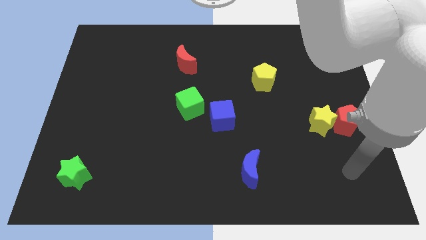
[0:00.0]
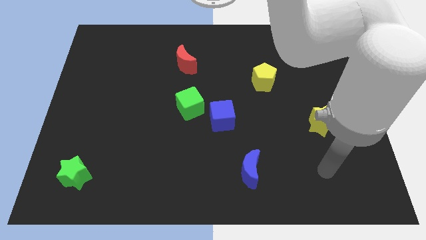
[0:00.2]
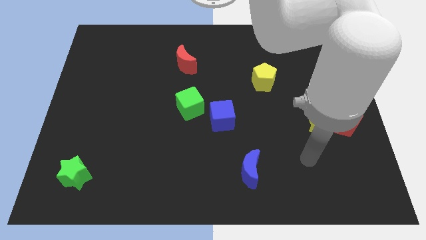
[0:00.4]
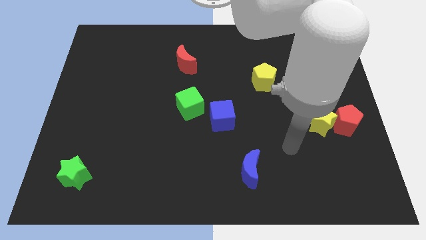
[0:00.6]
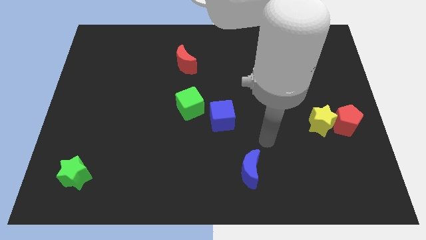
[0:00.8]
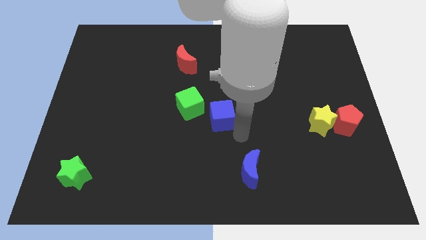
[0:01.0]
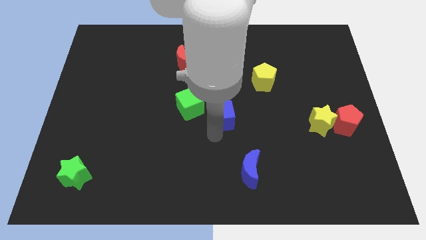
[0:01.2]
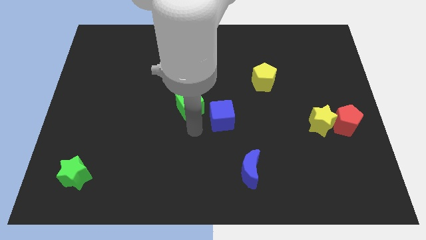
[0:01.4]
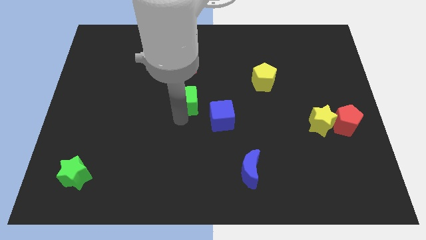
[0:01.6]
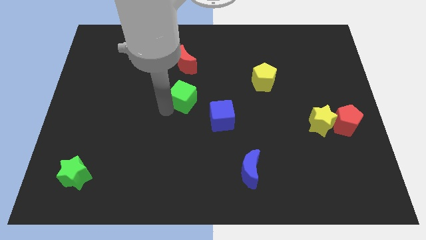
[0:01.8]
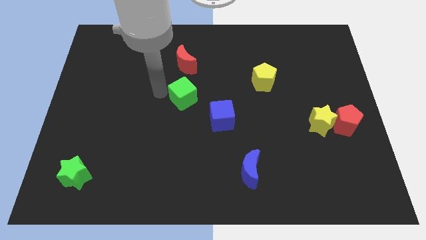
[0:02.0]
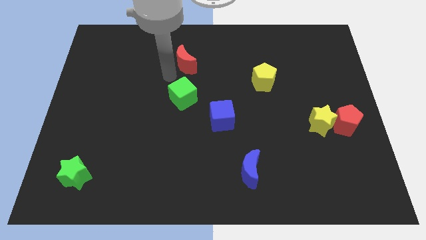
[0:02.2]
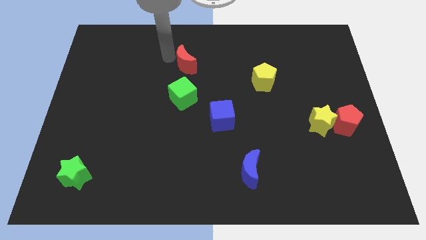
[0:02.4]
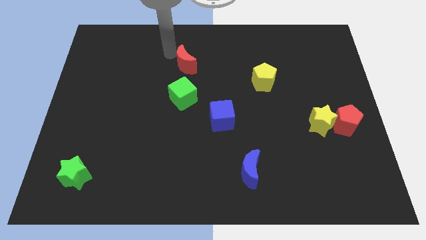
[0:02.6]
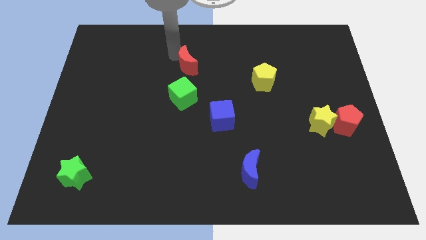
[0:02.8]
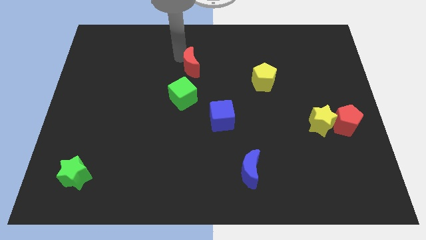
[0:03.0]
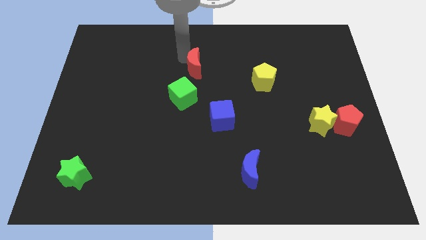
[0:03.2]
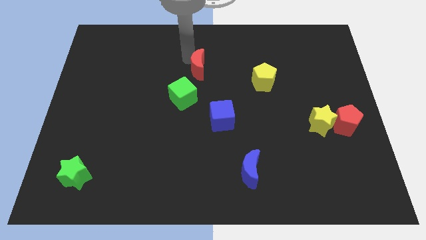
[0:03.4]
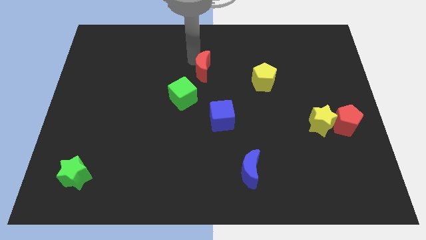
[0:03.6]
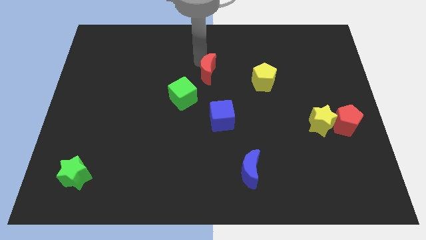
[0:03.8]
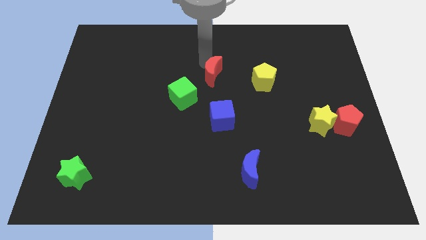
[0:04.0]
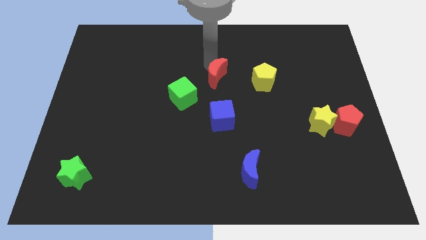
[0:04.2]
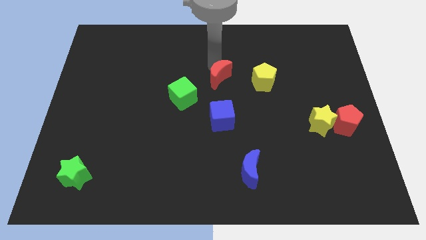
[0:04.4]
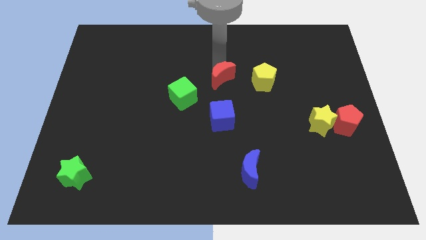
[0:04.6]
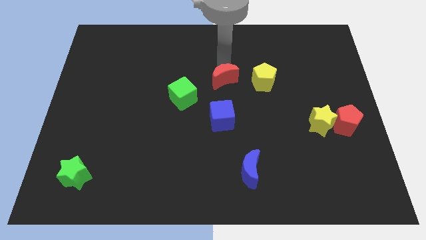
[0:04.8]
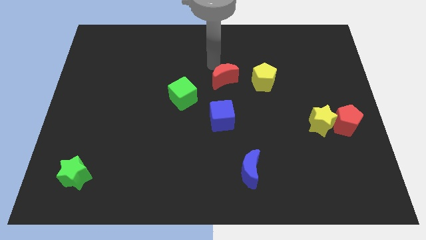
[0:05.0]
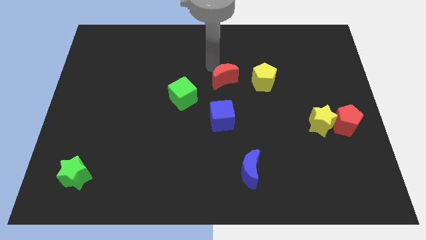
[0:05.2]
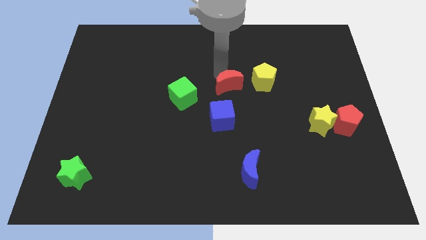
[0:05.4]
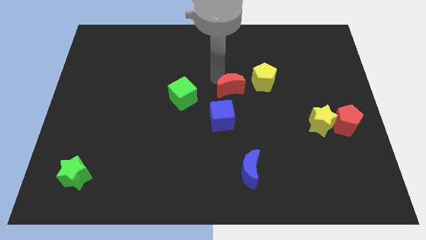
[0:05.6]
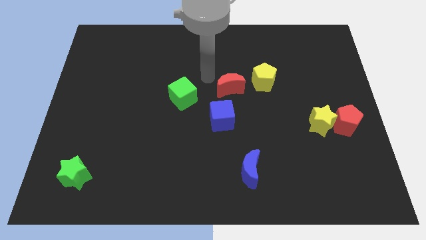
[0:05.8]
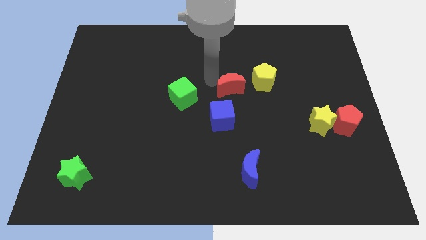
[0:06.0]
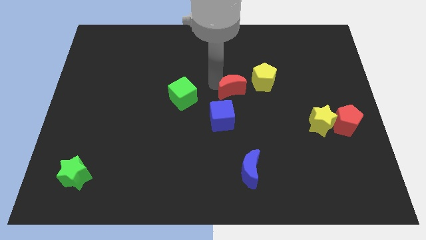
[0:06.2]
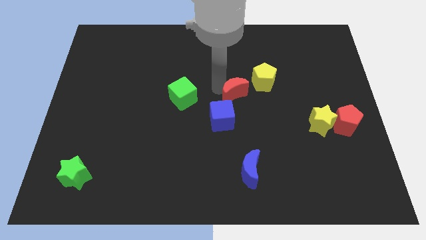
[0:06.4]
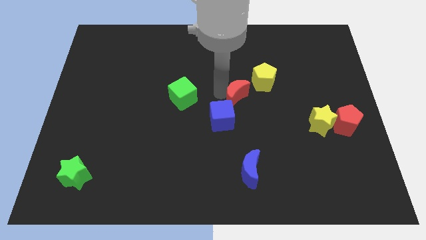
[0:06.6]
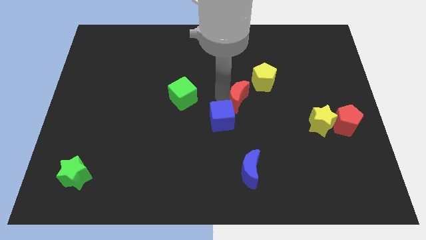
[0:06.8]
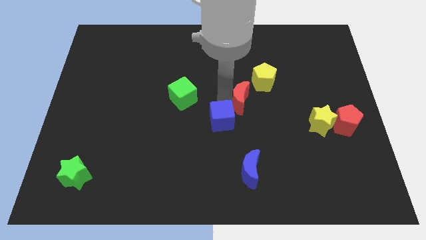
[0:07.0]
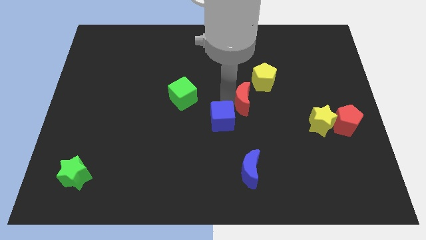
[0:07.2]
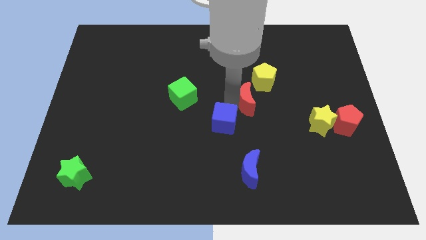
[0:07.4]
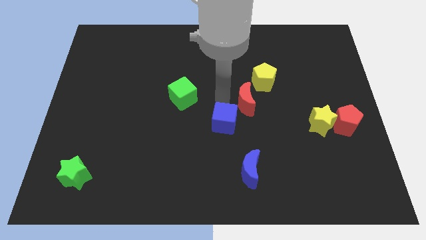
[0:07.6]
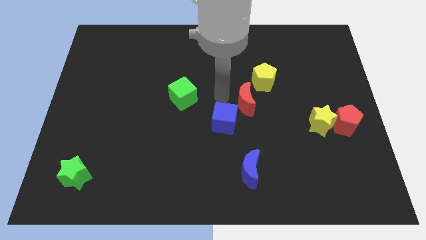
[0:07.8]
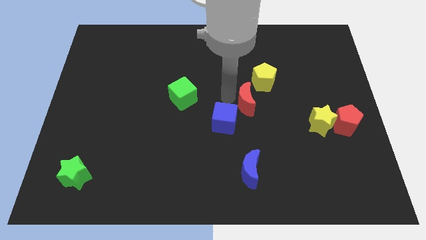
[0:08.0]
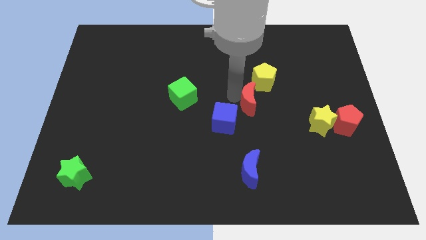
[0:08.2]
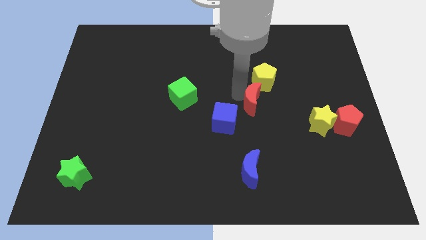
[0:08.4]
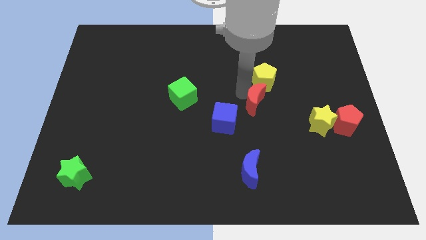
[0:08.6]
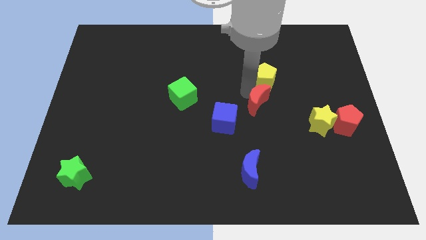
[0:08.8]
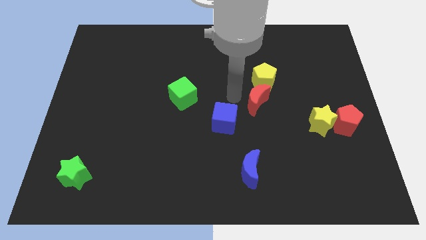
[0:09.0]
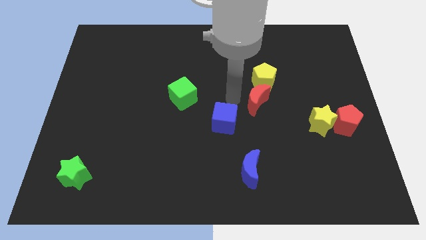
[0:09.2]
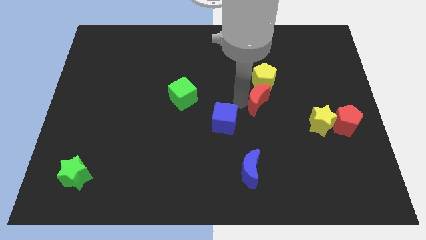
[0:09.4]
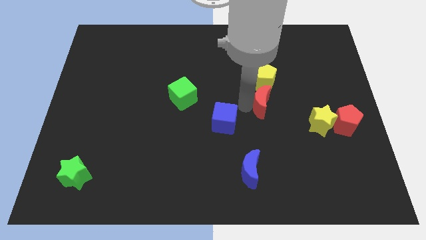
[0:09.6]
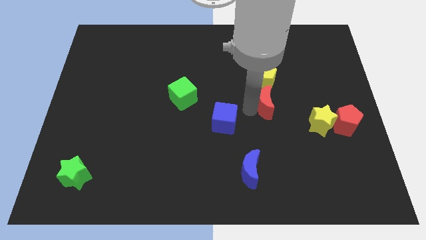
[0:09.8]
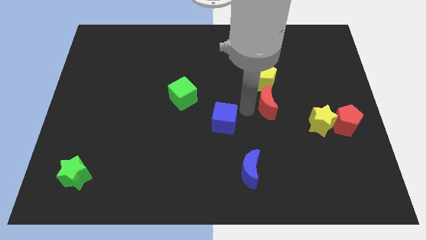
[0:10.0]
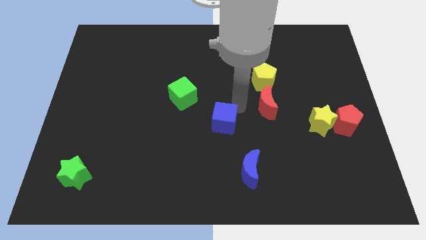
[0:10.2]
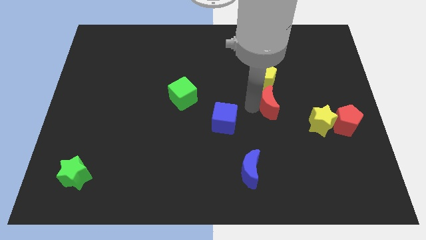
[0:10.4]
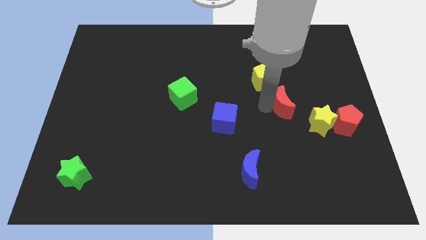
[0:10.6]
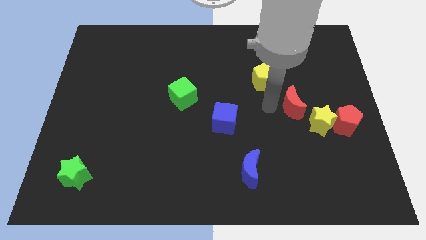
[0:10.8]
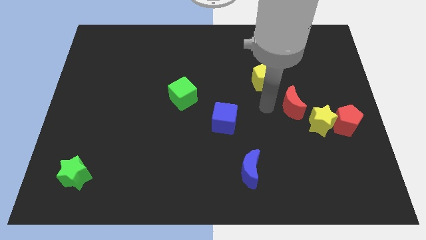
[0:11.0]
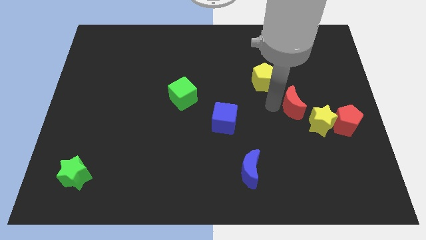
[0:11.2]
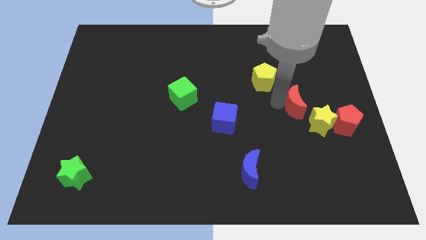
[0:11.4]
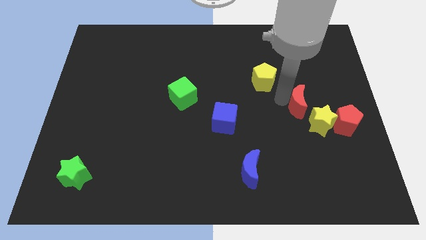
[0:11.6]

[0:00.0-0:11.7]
move the red moon to the top left of the red pentagon
